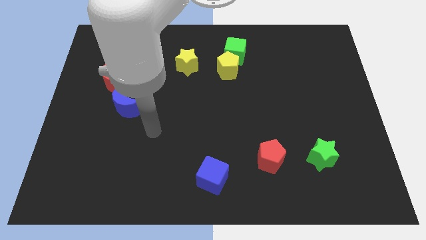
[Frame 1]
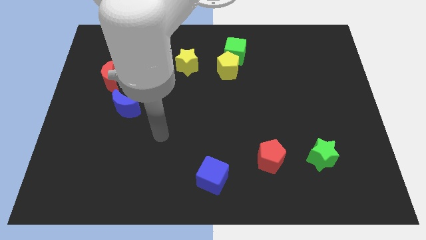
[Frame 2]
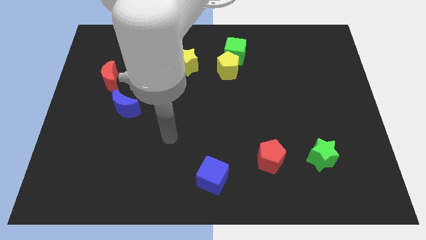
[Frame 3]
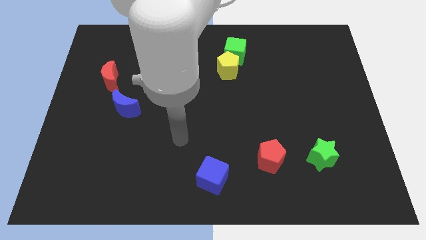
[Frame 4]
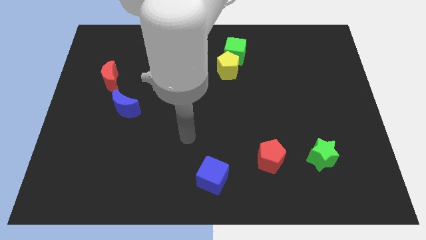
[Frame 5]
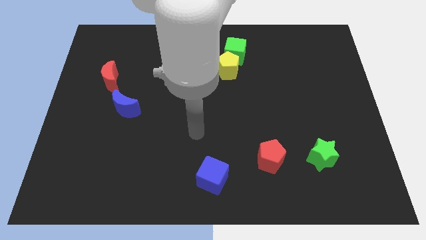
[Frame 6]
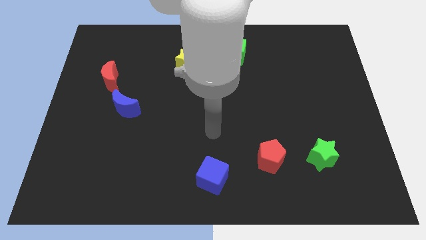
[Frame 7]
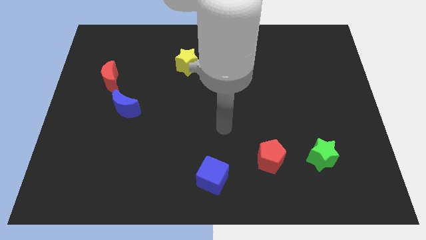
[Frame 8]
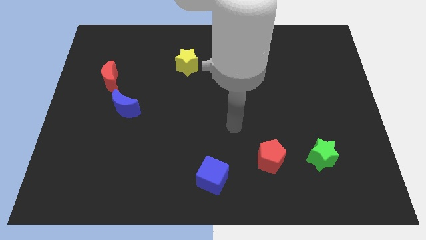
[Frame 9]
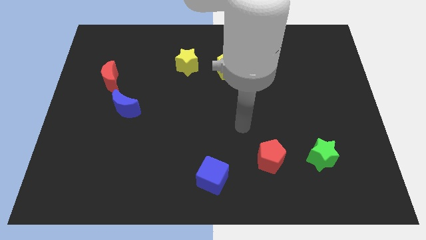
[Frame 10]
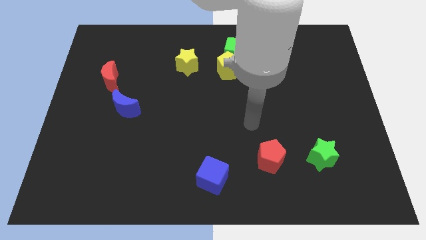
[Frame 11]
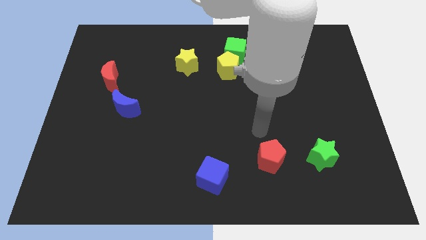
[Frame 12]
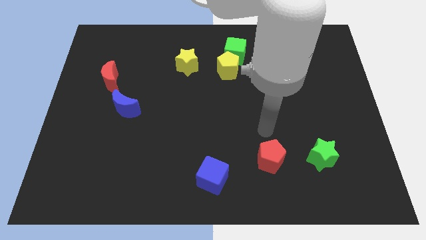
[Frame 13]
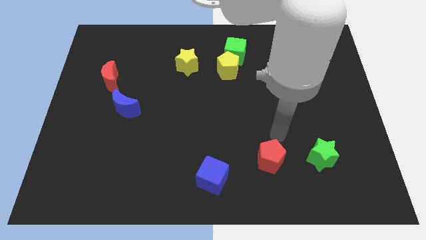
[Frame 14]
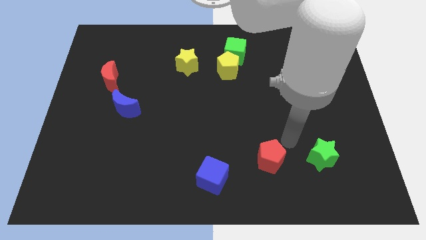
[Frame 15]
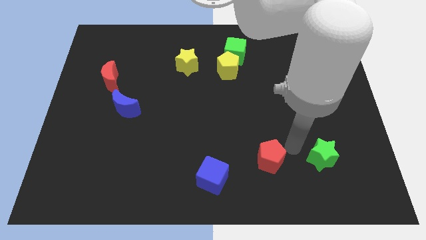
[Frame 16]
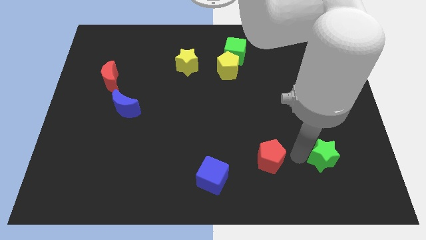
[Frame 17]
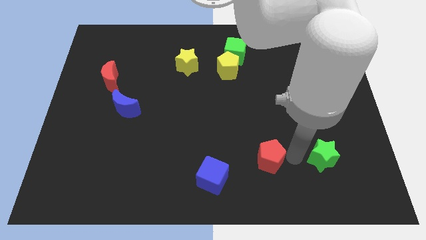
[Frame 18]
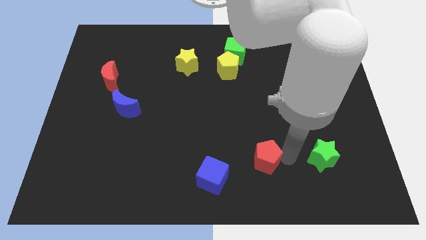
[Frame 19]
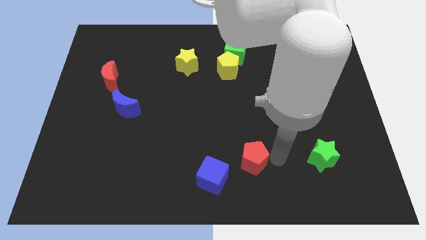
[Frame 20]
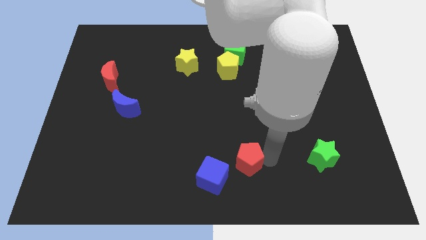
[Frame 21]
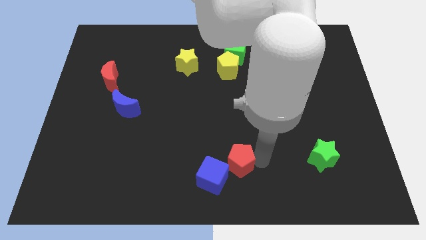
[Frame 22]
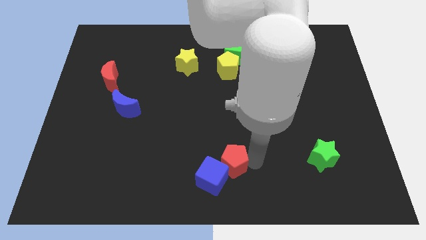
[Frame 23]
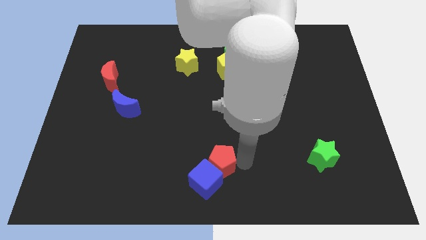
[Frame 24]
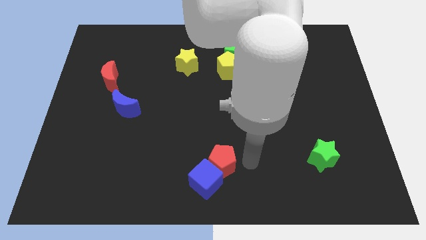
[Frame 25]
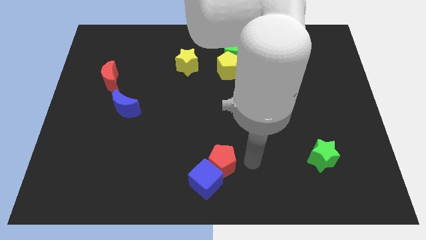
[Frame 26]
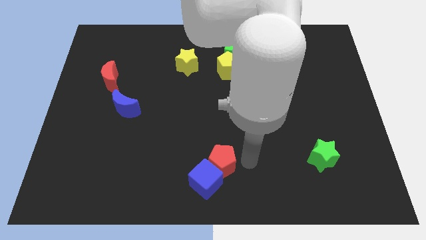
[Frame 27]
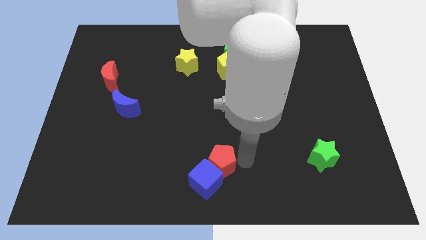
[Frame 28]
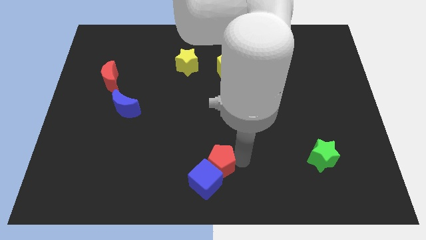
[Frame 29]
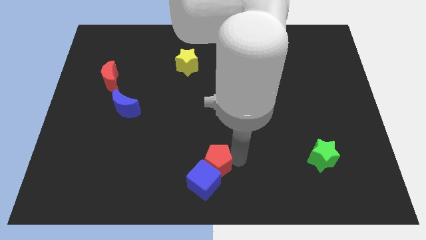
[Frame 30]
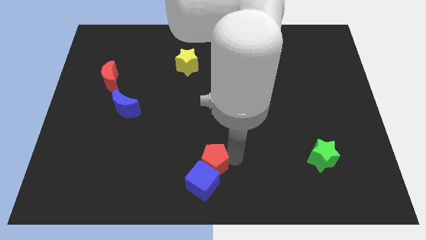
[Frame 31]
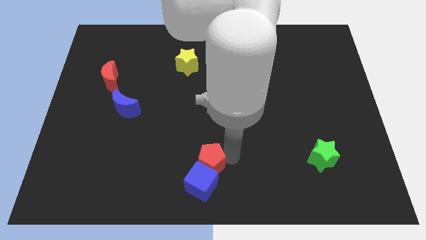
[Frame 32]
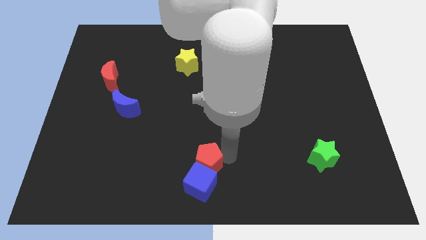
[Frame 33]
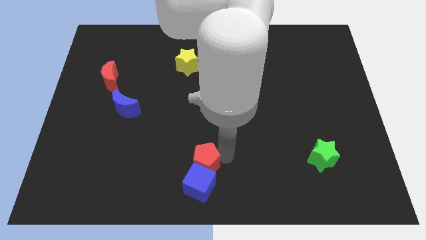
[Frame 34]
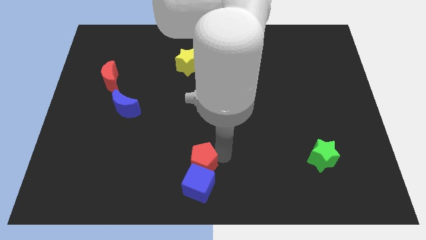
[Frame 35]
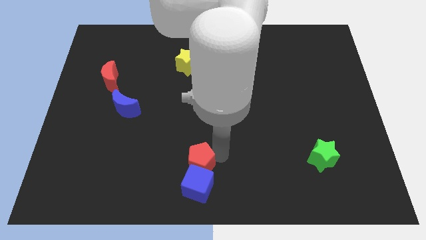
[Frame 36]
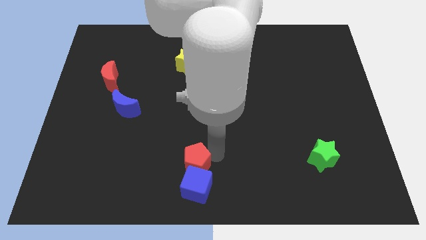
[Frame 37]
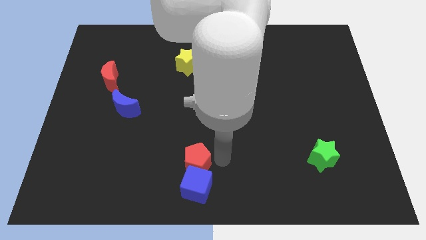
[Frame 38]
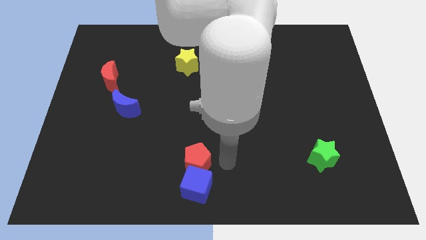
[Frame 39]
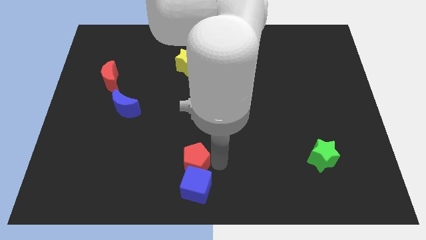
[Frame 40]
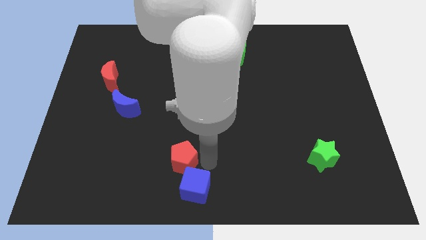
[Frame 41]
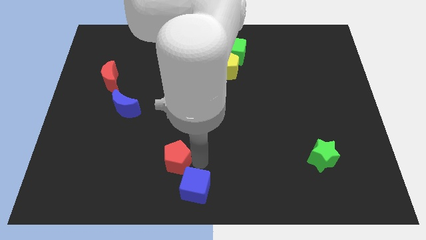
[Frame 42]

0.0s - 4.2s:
move the red pentagon to the left

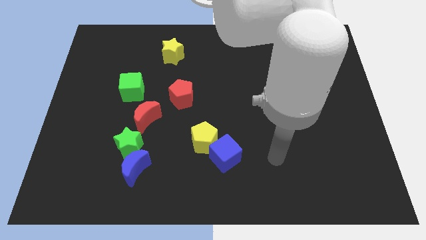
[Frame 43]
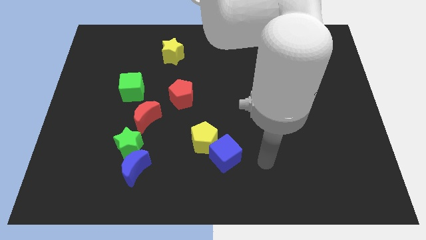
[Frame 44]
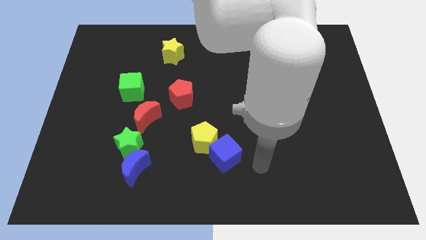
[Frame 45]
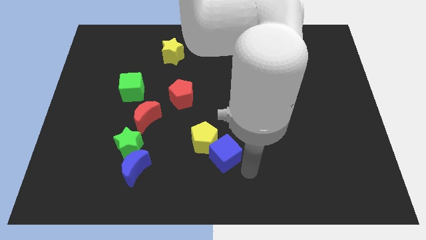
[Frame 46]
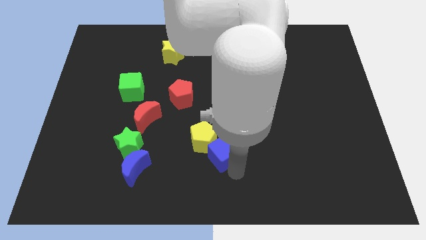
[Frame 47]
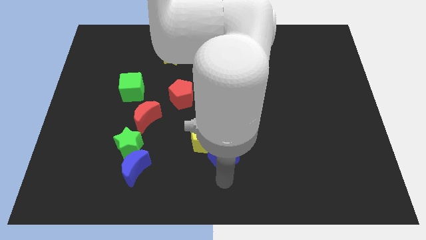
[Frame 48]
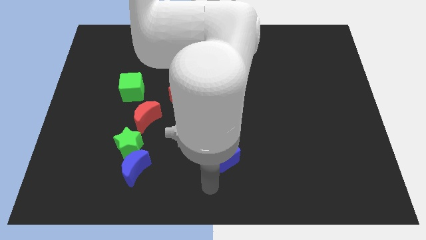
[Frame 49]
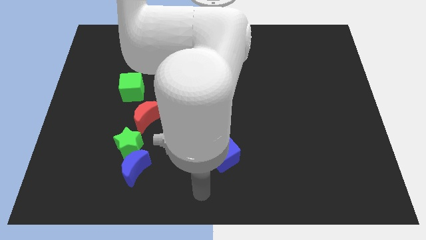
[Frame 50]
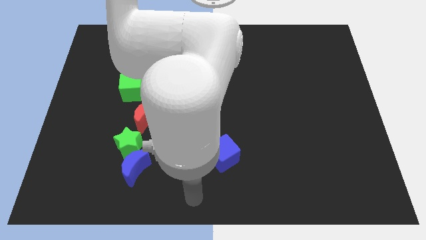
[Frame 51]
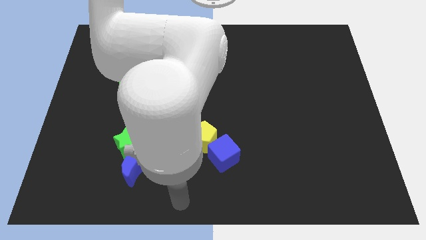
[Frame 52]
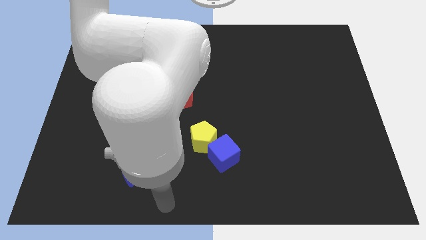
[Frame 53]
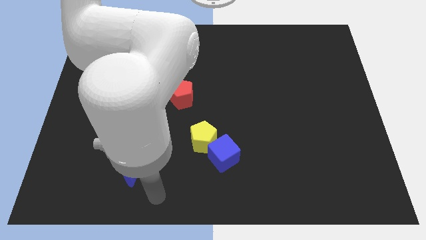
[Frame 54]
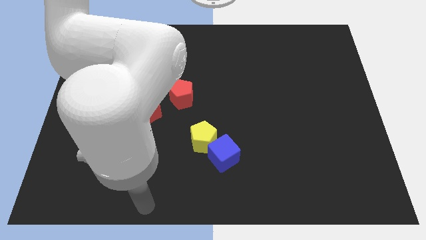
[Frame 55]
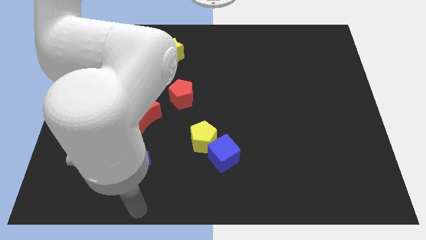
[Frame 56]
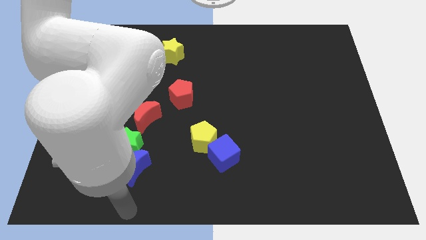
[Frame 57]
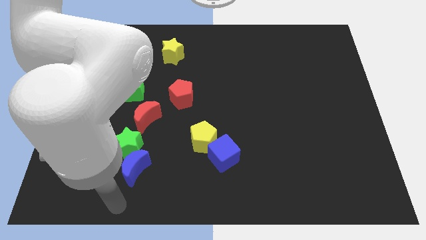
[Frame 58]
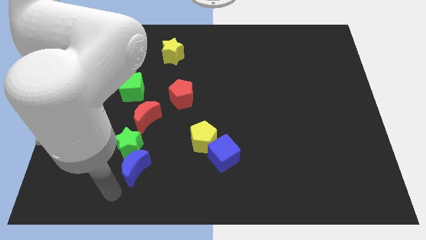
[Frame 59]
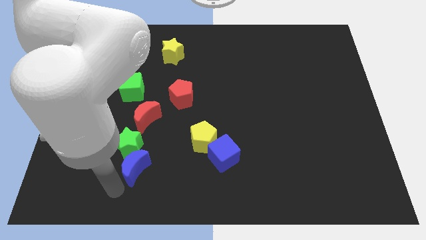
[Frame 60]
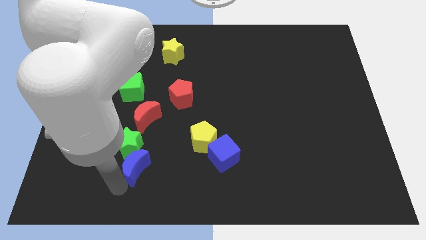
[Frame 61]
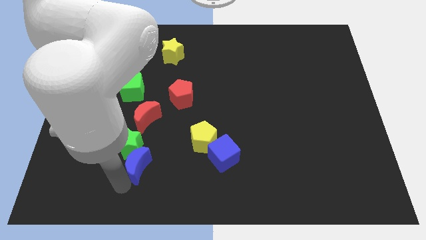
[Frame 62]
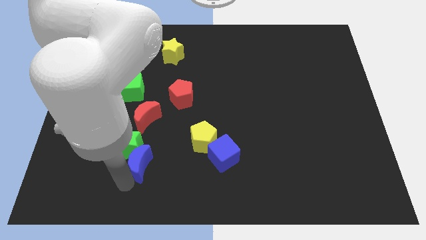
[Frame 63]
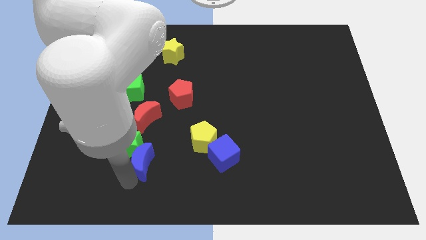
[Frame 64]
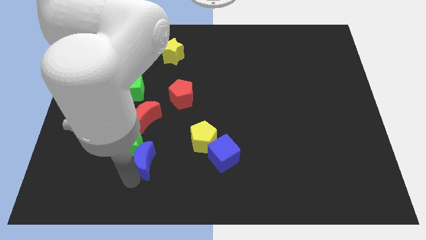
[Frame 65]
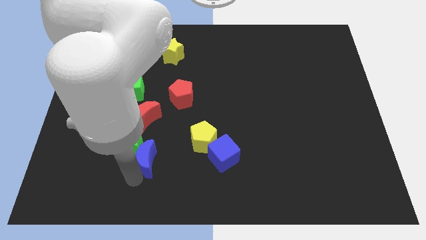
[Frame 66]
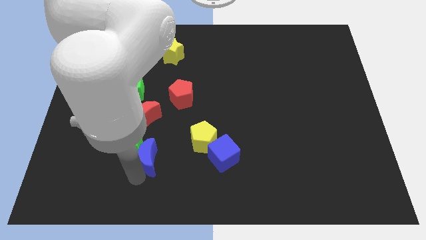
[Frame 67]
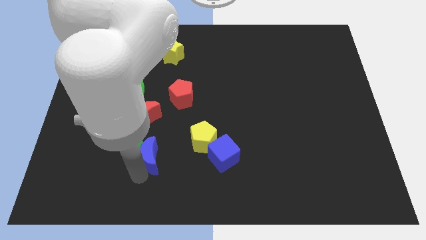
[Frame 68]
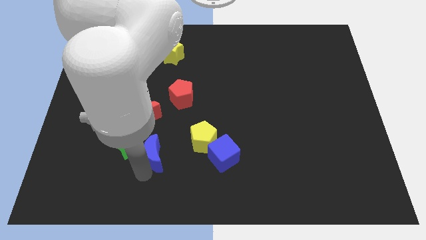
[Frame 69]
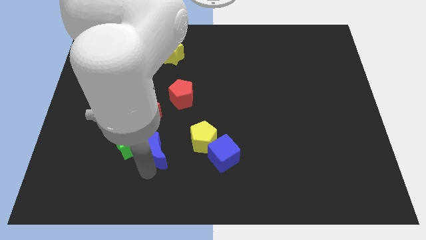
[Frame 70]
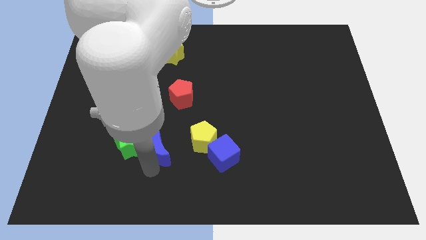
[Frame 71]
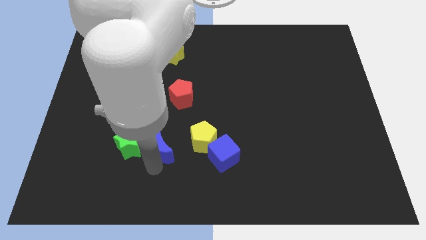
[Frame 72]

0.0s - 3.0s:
slightly push the blue moon upwards and right diagonally

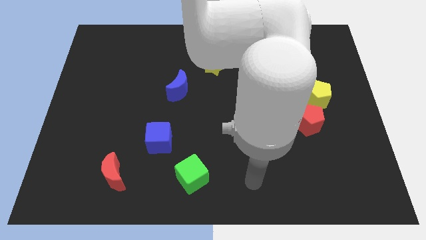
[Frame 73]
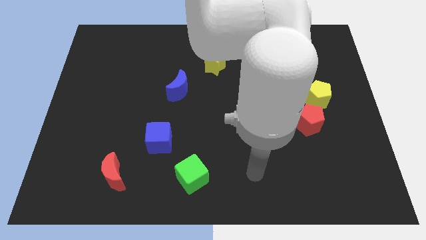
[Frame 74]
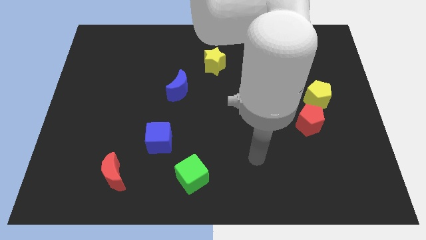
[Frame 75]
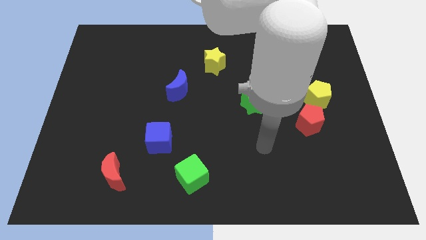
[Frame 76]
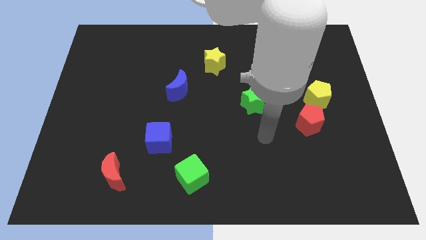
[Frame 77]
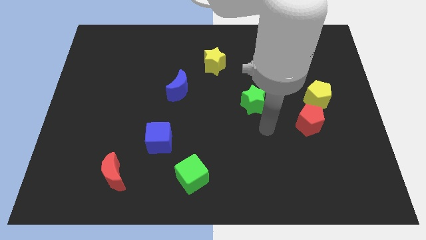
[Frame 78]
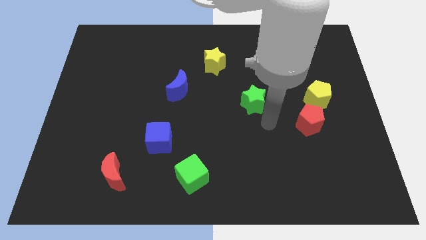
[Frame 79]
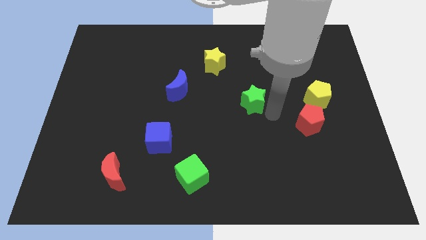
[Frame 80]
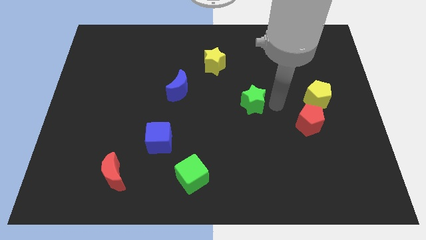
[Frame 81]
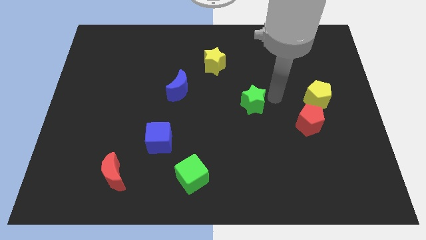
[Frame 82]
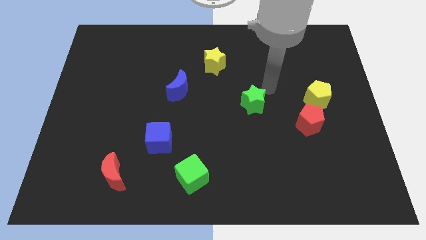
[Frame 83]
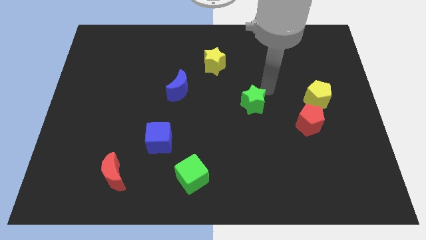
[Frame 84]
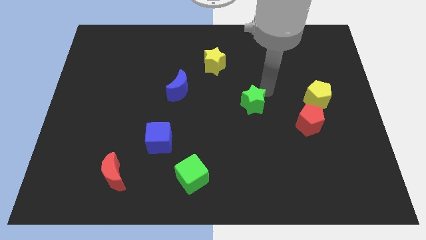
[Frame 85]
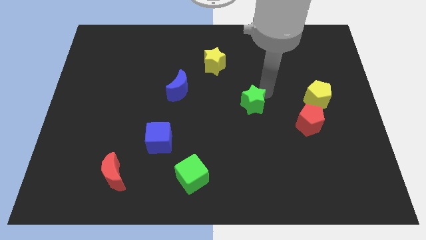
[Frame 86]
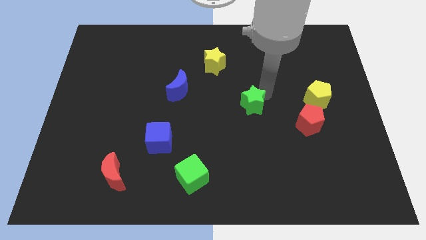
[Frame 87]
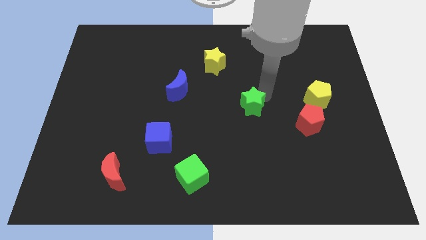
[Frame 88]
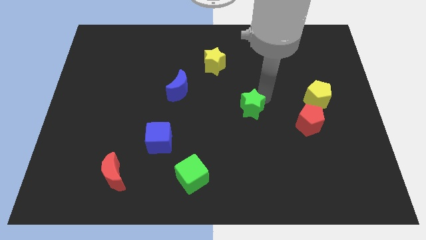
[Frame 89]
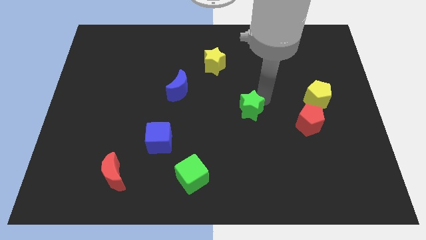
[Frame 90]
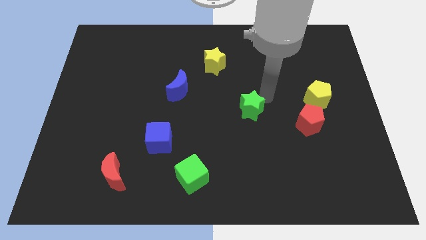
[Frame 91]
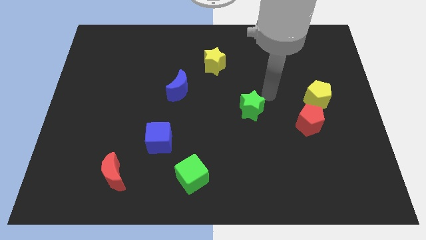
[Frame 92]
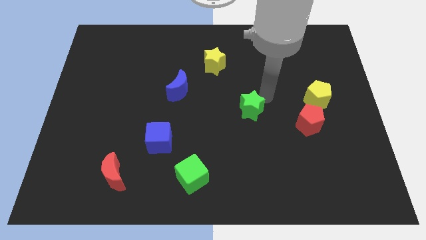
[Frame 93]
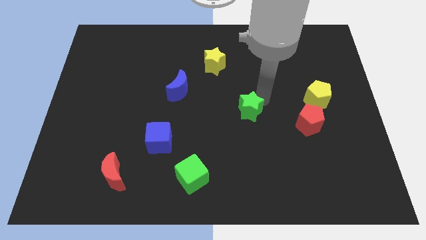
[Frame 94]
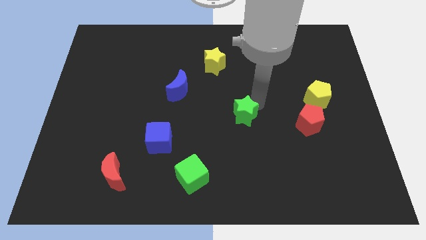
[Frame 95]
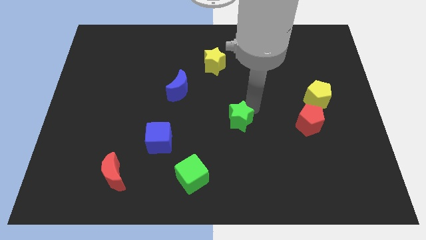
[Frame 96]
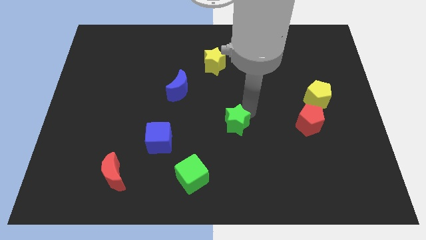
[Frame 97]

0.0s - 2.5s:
slightly move the green star down and then to the left
